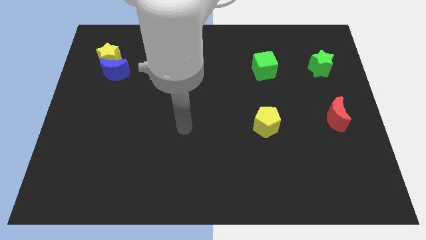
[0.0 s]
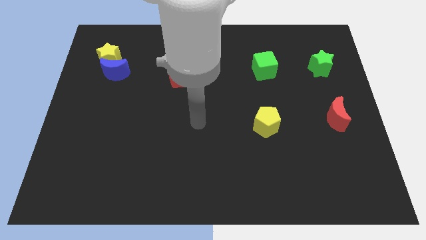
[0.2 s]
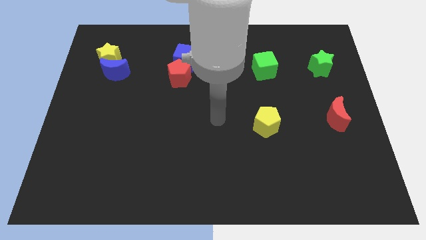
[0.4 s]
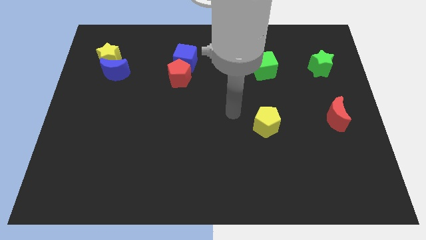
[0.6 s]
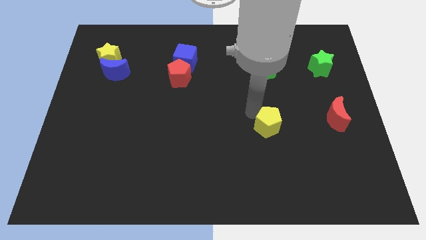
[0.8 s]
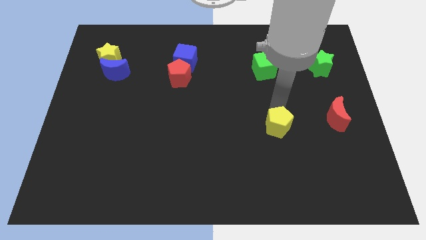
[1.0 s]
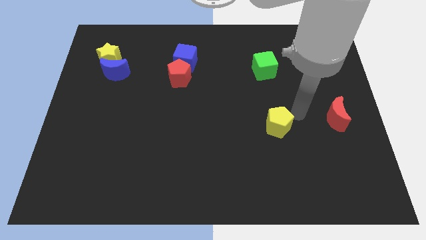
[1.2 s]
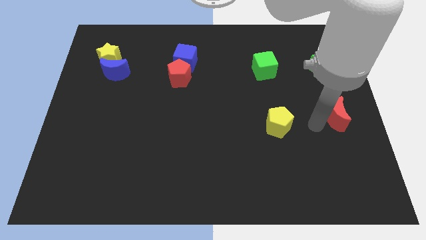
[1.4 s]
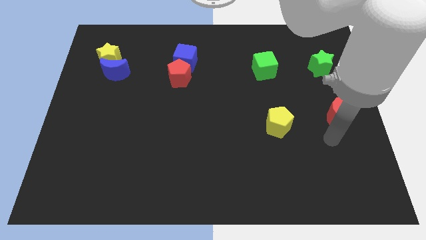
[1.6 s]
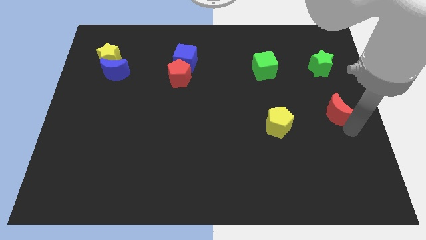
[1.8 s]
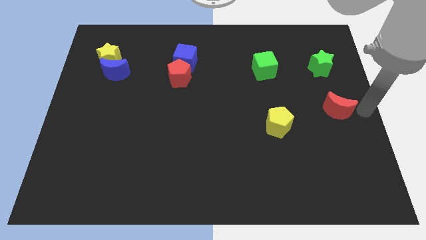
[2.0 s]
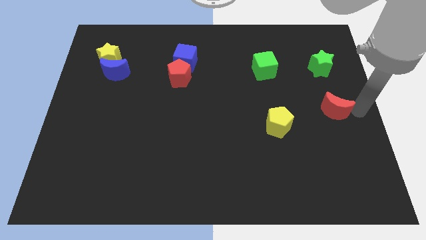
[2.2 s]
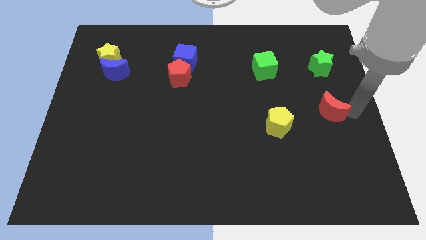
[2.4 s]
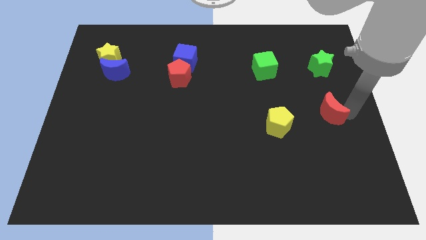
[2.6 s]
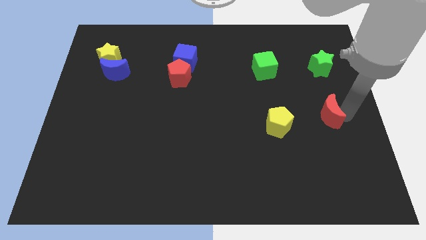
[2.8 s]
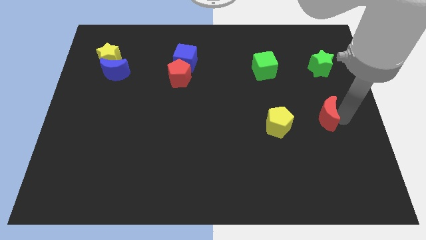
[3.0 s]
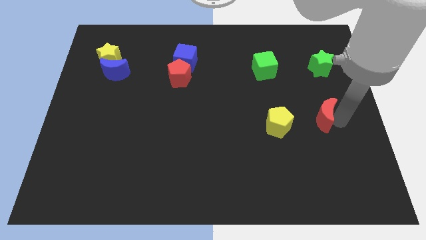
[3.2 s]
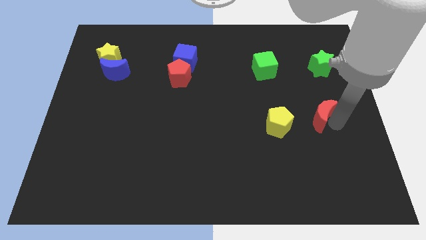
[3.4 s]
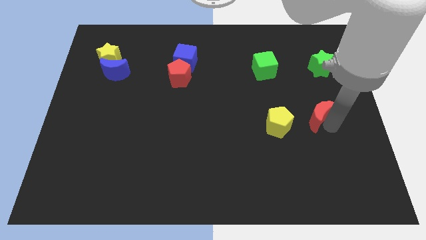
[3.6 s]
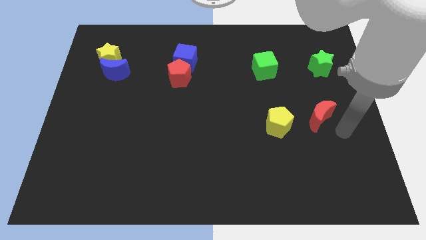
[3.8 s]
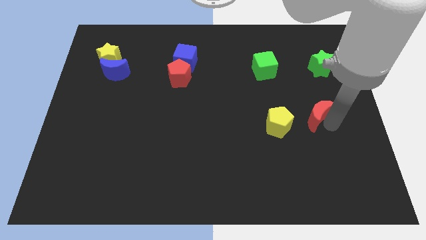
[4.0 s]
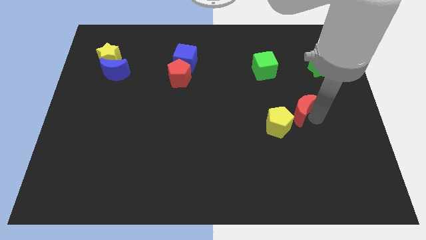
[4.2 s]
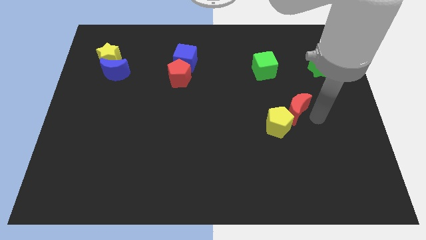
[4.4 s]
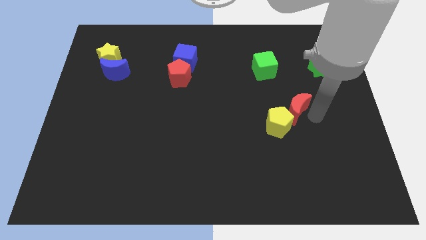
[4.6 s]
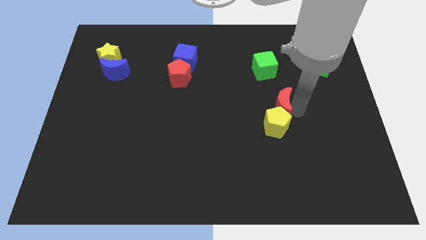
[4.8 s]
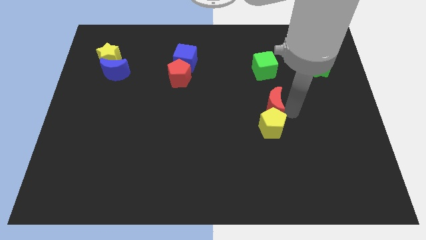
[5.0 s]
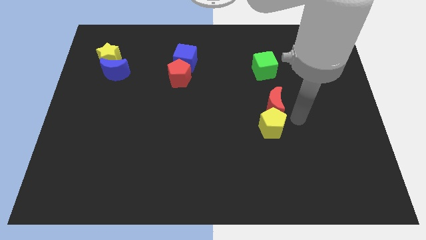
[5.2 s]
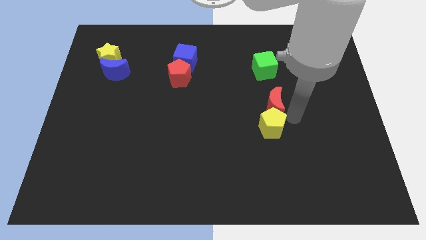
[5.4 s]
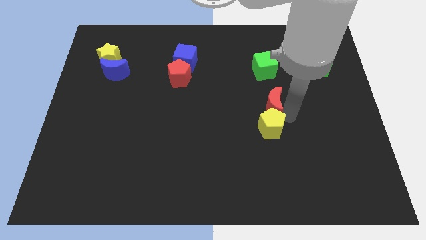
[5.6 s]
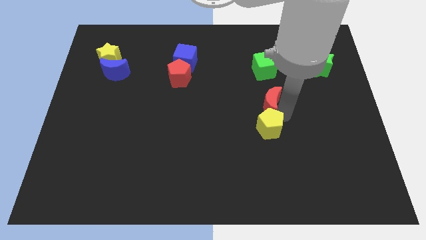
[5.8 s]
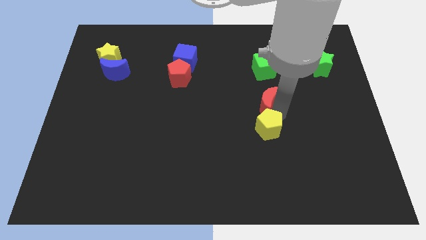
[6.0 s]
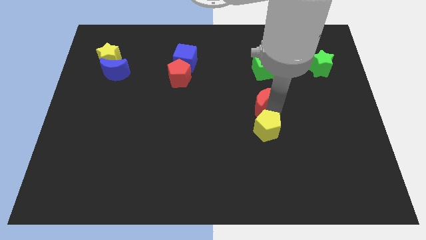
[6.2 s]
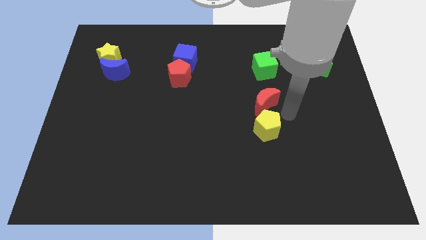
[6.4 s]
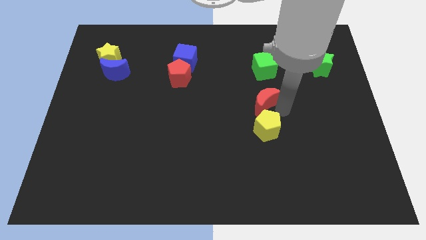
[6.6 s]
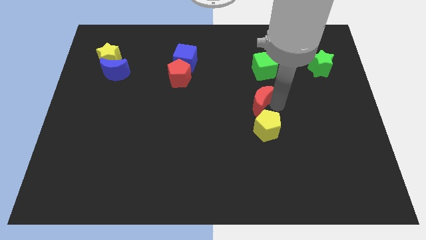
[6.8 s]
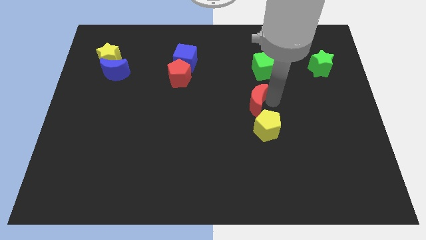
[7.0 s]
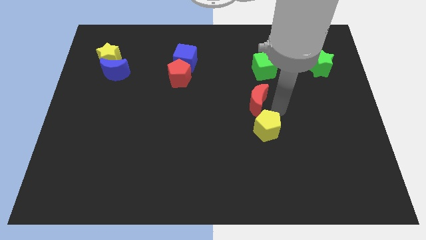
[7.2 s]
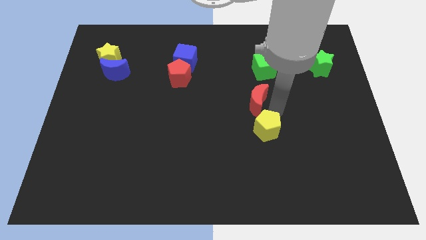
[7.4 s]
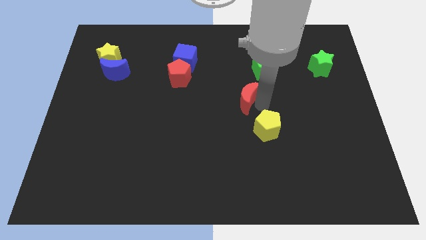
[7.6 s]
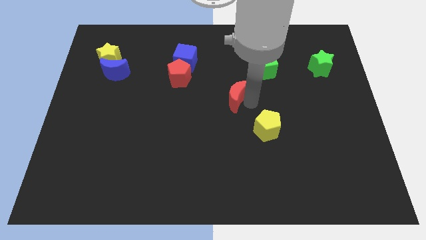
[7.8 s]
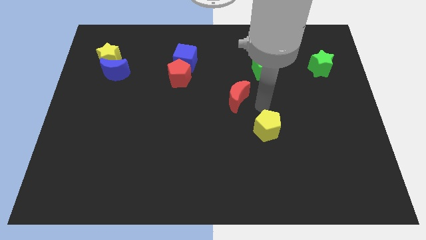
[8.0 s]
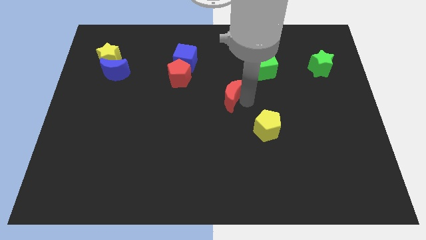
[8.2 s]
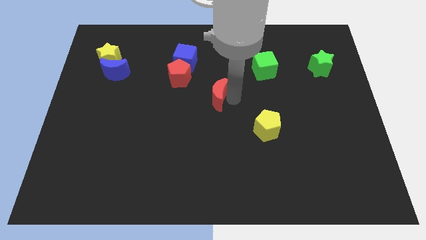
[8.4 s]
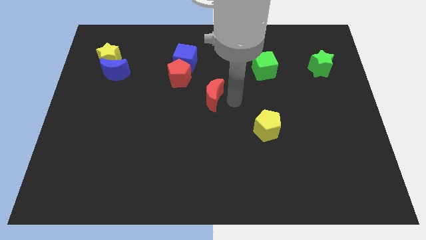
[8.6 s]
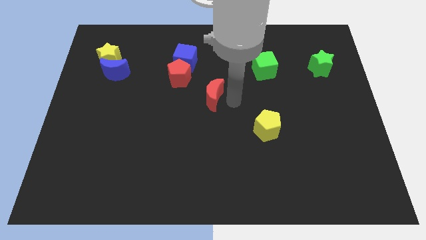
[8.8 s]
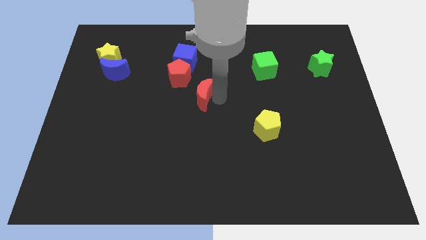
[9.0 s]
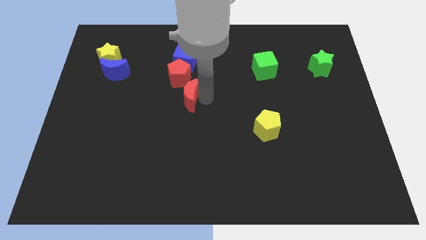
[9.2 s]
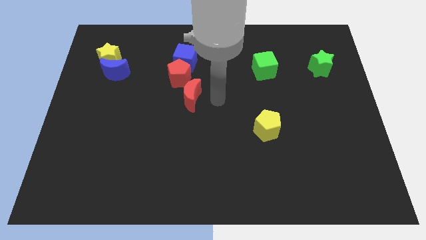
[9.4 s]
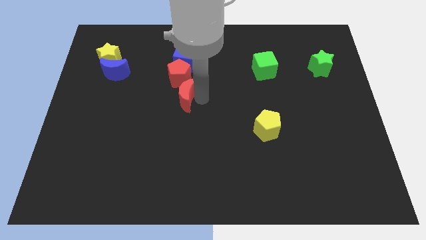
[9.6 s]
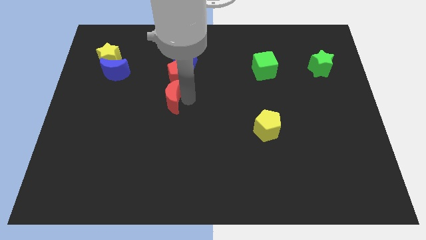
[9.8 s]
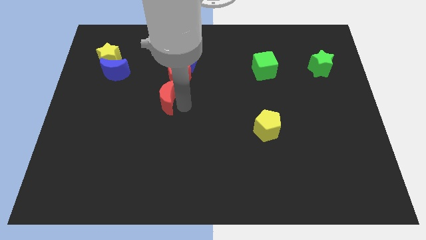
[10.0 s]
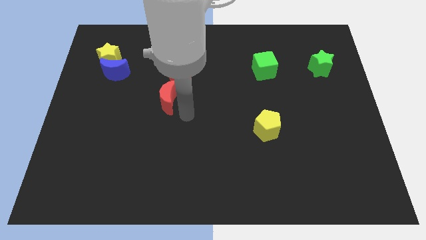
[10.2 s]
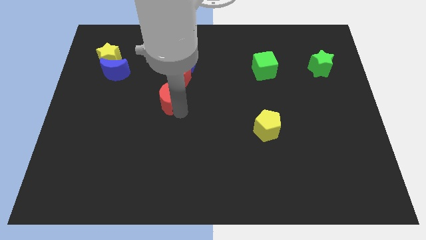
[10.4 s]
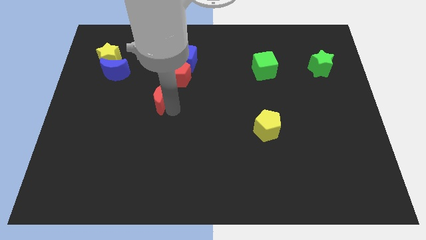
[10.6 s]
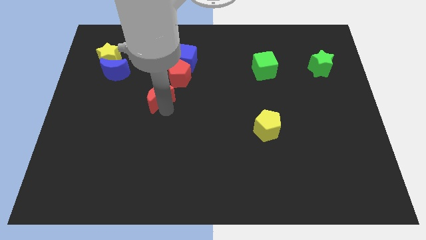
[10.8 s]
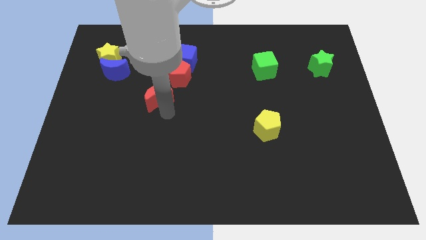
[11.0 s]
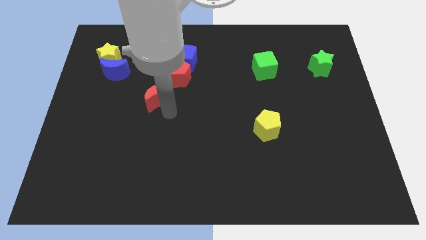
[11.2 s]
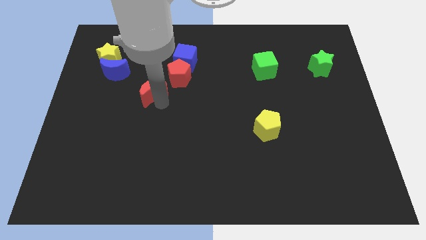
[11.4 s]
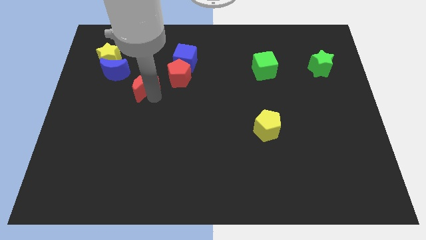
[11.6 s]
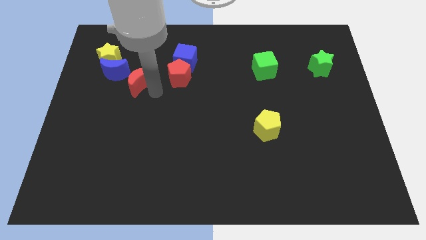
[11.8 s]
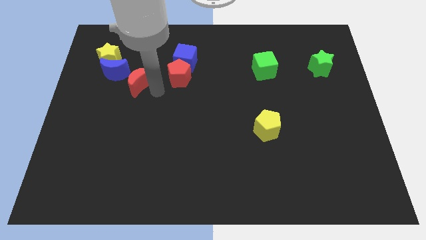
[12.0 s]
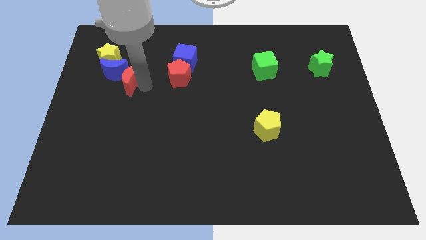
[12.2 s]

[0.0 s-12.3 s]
put the red moon next to the blue moon
